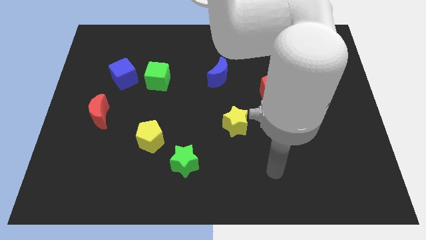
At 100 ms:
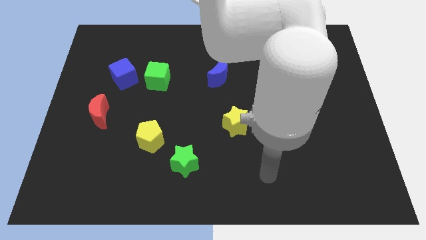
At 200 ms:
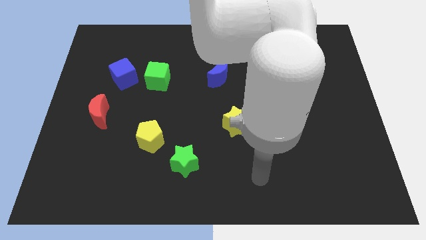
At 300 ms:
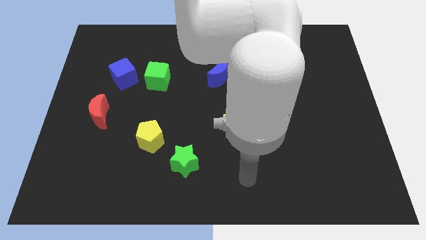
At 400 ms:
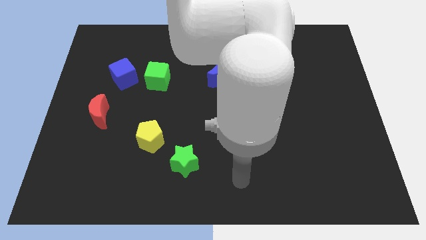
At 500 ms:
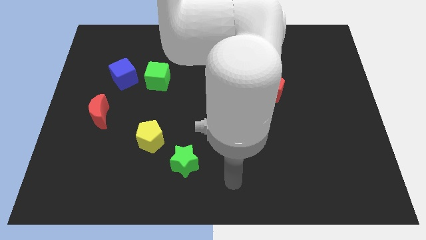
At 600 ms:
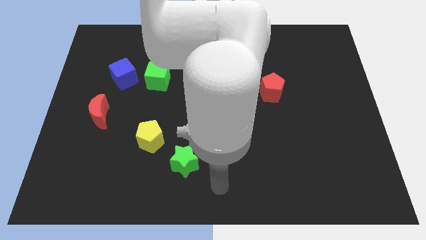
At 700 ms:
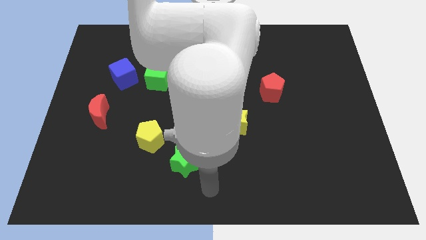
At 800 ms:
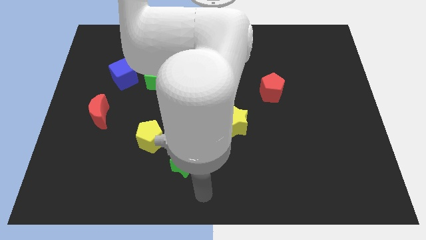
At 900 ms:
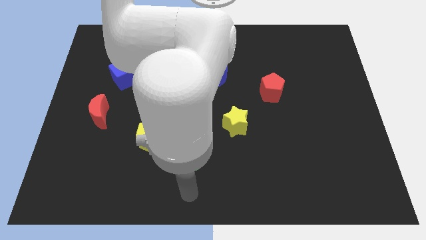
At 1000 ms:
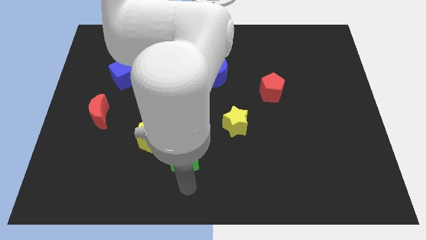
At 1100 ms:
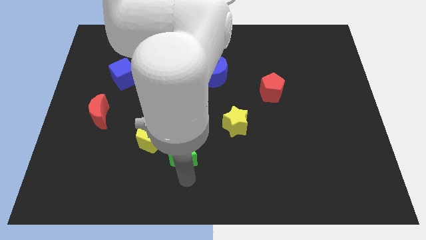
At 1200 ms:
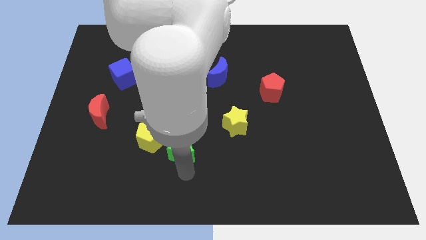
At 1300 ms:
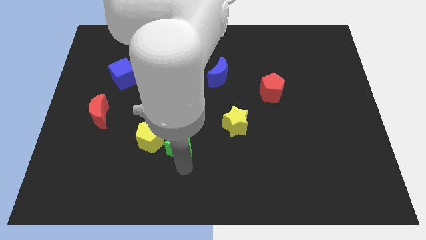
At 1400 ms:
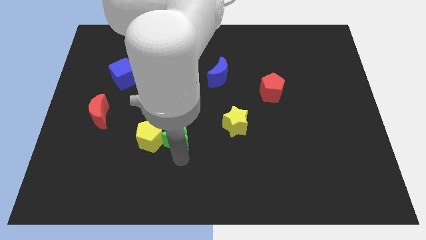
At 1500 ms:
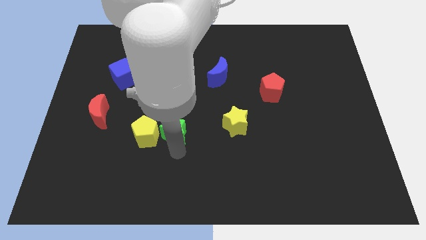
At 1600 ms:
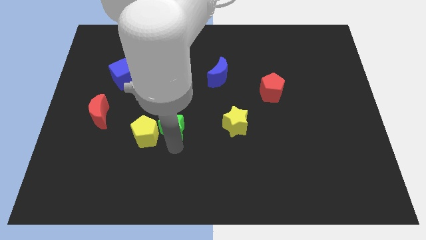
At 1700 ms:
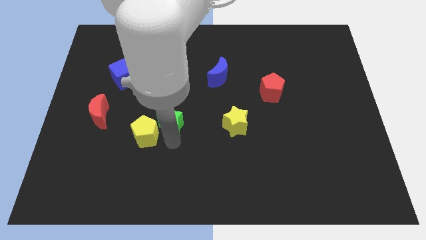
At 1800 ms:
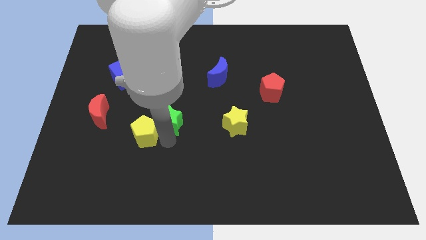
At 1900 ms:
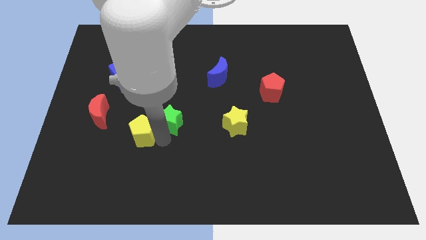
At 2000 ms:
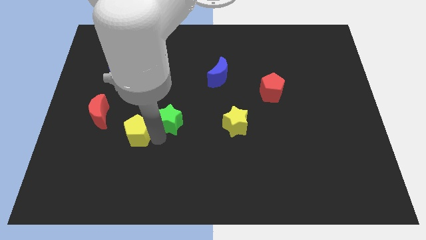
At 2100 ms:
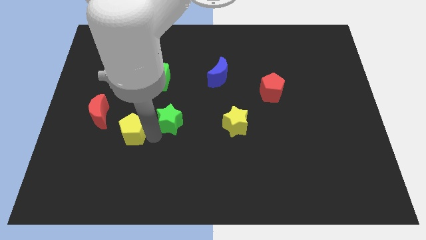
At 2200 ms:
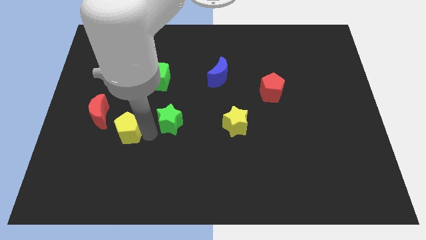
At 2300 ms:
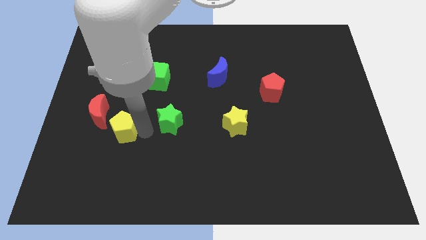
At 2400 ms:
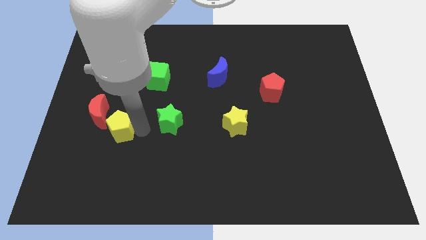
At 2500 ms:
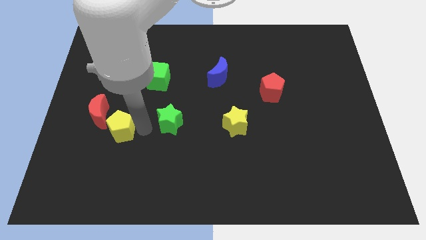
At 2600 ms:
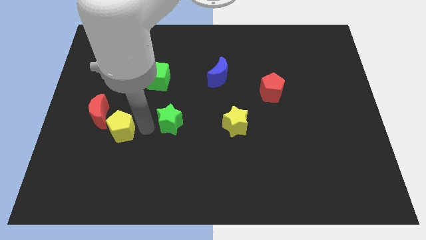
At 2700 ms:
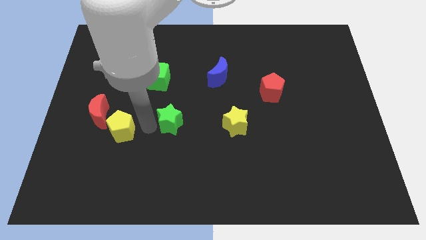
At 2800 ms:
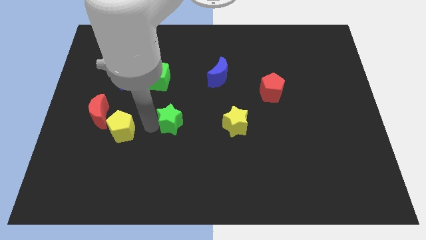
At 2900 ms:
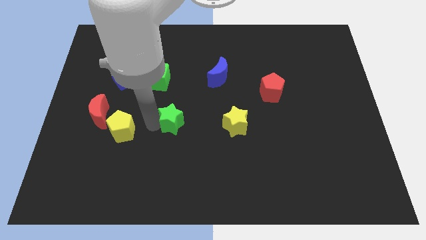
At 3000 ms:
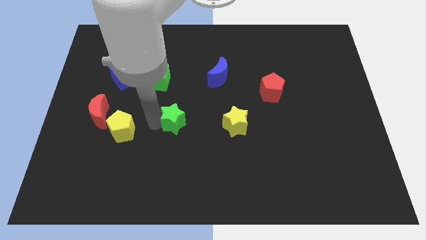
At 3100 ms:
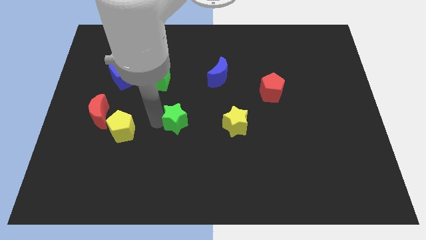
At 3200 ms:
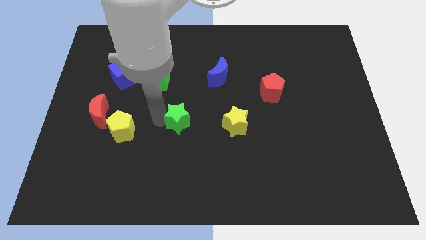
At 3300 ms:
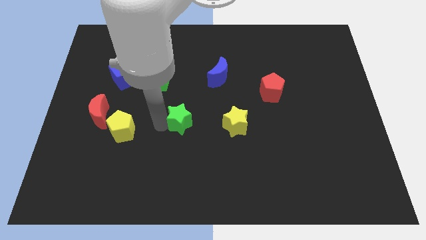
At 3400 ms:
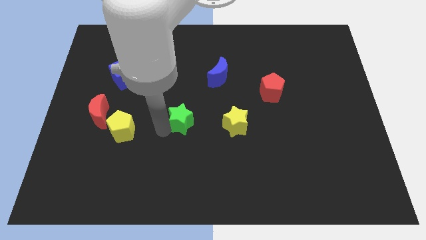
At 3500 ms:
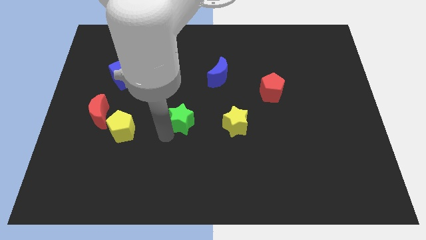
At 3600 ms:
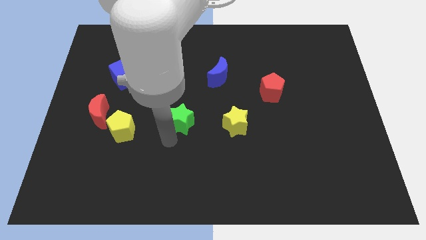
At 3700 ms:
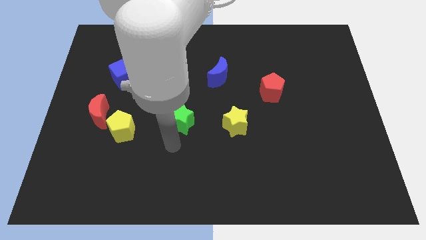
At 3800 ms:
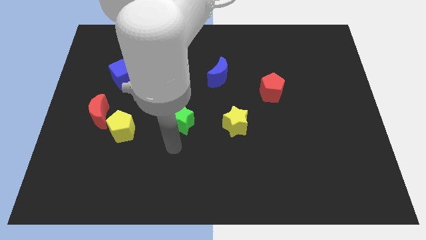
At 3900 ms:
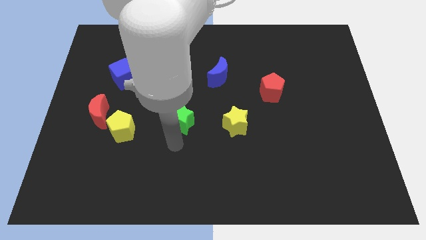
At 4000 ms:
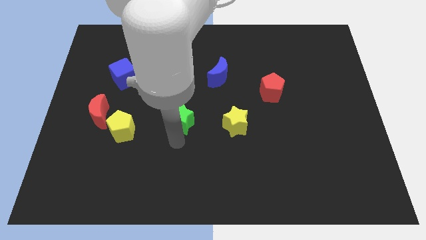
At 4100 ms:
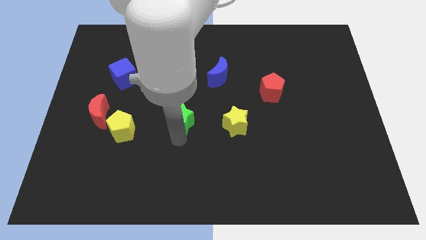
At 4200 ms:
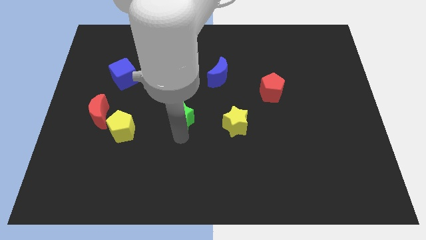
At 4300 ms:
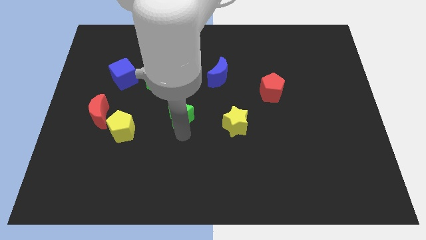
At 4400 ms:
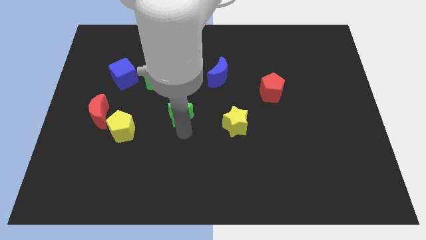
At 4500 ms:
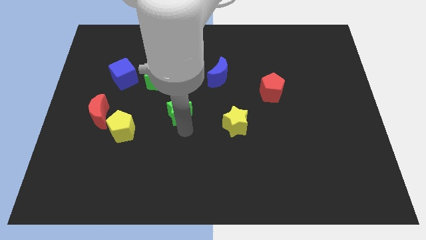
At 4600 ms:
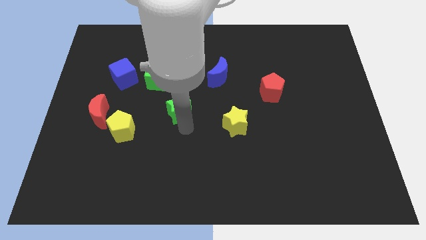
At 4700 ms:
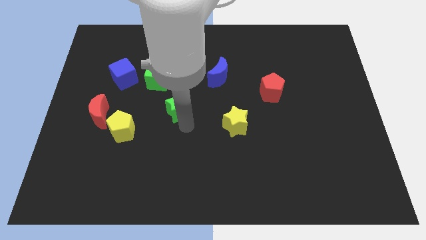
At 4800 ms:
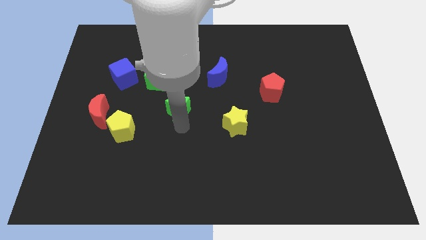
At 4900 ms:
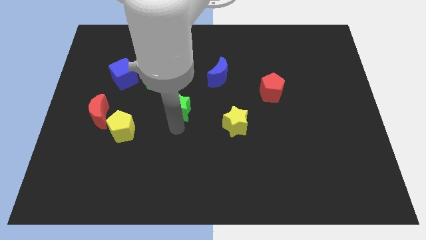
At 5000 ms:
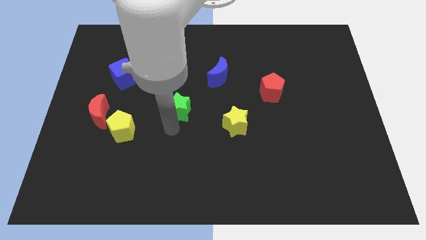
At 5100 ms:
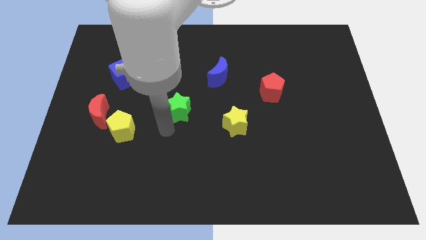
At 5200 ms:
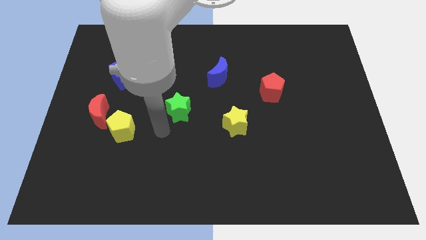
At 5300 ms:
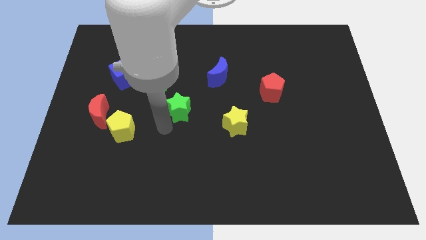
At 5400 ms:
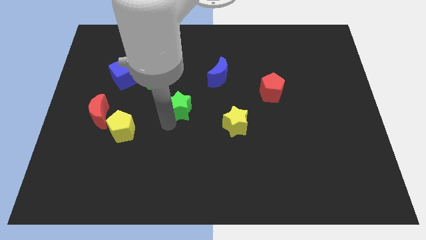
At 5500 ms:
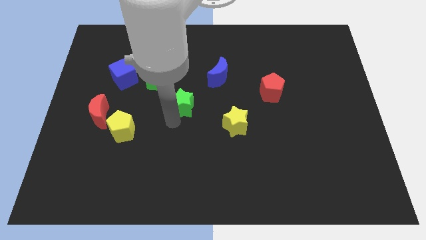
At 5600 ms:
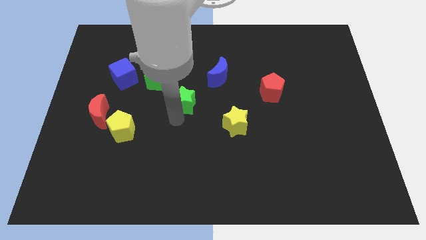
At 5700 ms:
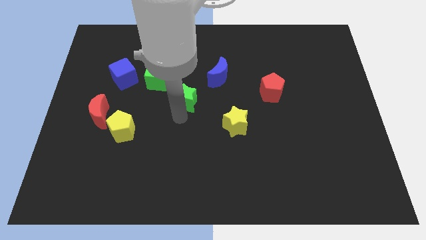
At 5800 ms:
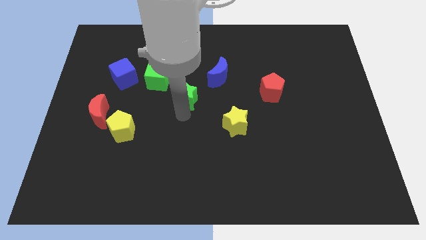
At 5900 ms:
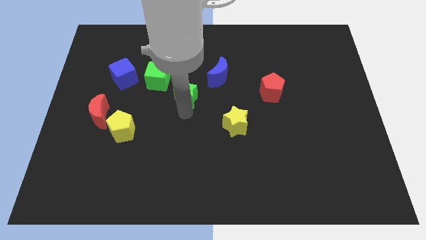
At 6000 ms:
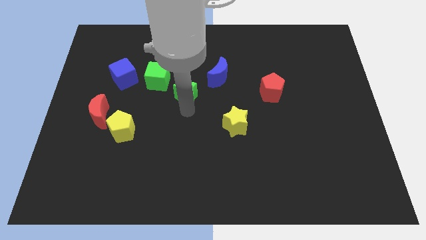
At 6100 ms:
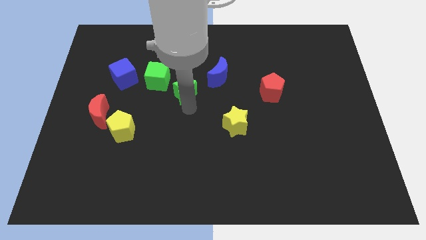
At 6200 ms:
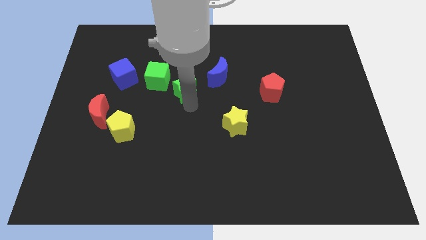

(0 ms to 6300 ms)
push the green star upwards

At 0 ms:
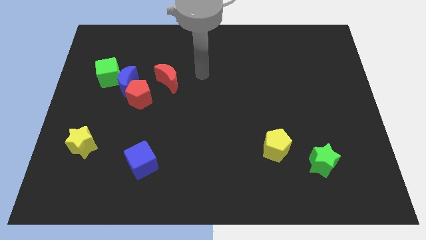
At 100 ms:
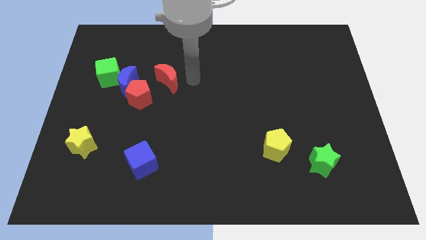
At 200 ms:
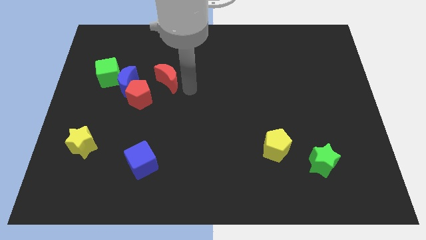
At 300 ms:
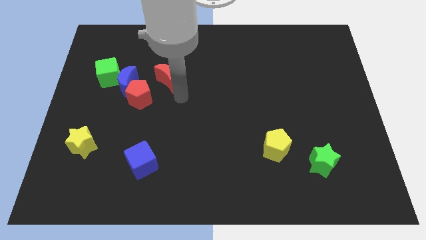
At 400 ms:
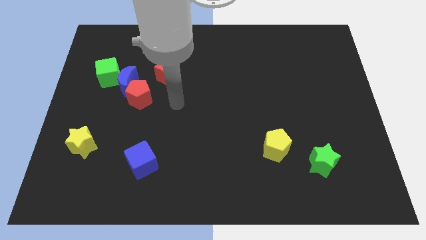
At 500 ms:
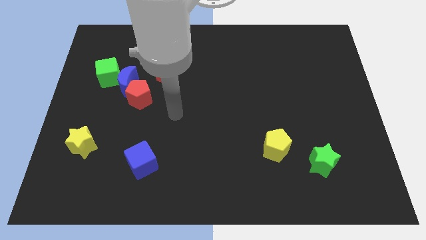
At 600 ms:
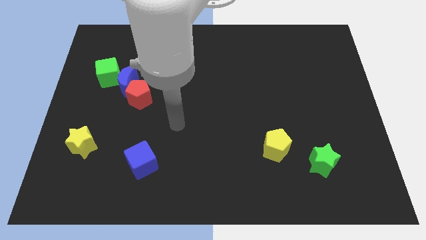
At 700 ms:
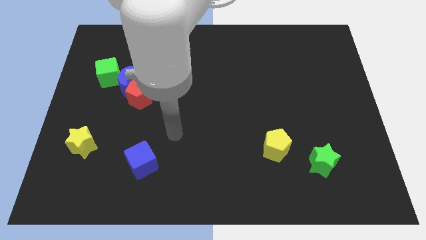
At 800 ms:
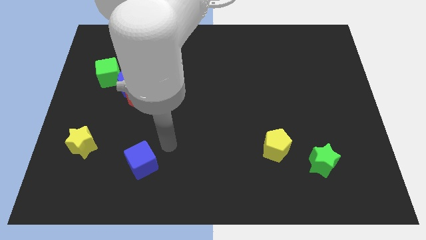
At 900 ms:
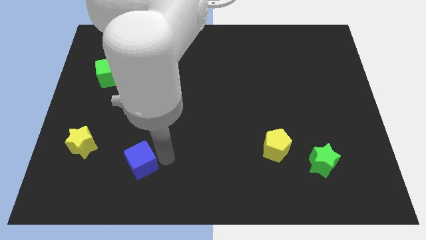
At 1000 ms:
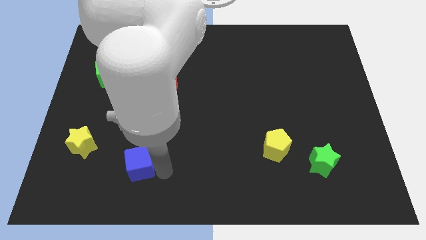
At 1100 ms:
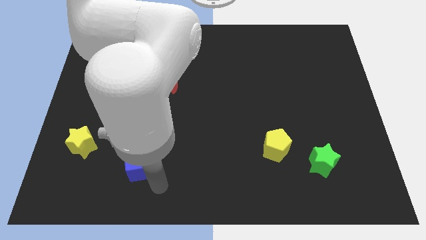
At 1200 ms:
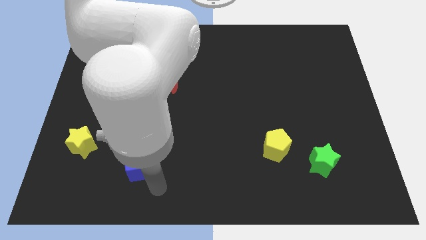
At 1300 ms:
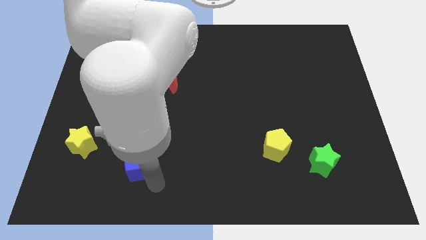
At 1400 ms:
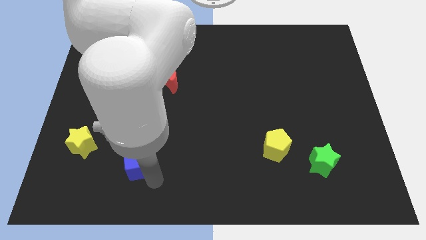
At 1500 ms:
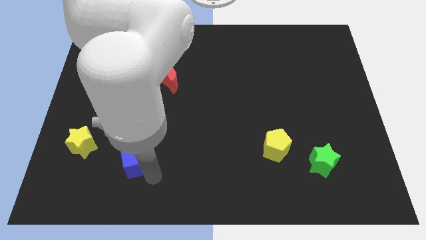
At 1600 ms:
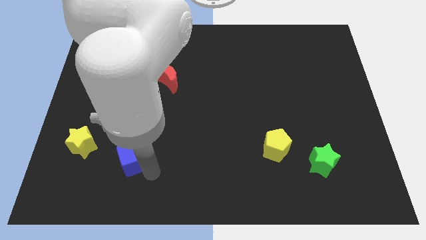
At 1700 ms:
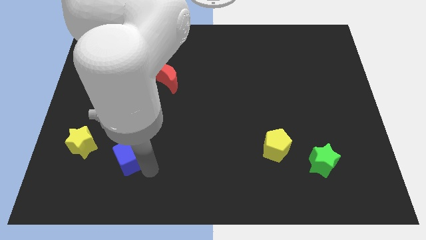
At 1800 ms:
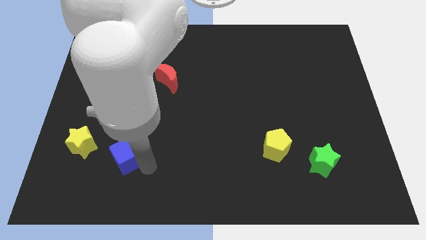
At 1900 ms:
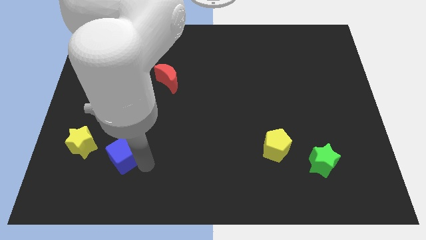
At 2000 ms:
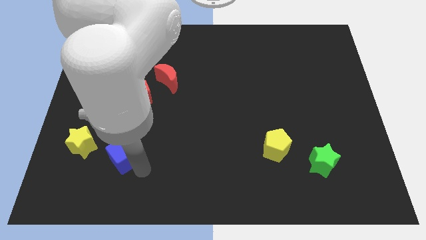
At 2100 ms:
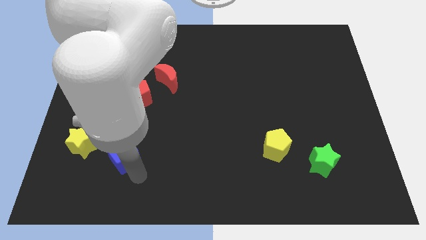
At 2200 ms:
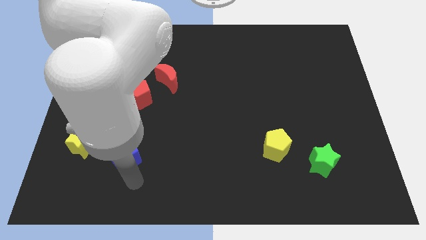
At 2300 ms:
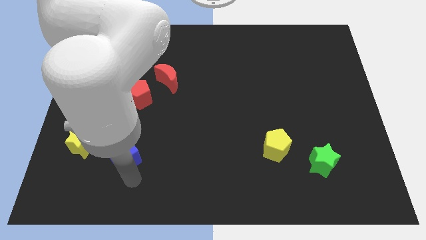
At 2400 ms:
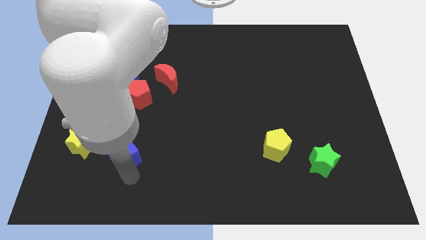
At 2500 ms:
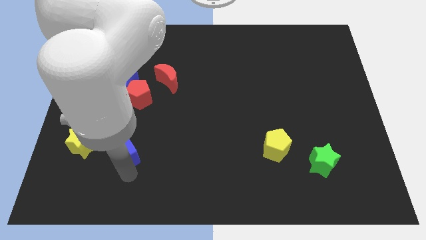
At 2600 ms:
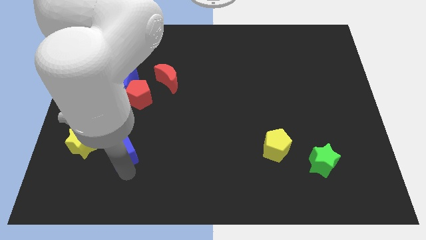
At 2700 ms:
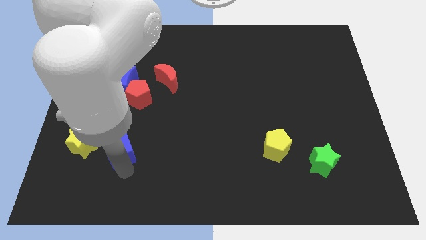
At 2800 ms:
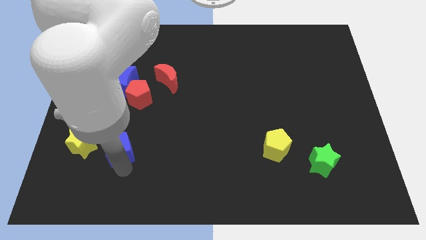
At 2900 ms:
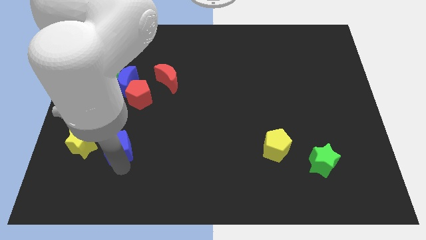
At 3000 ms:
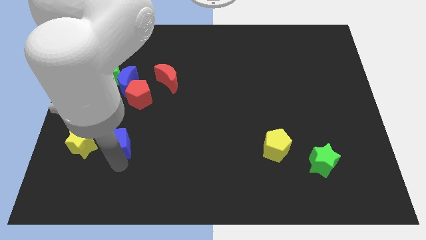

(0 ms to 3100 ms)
slightly slide the blue cube diagonally upwards and to the left
